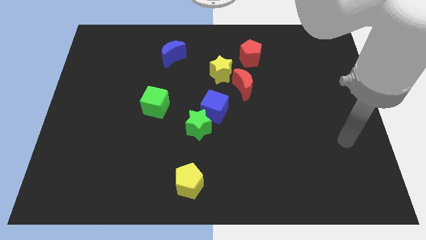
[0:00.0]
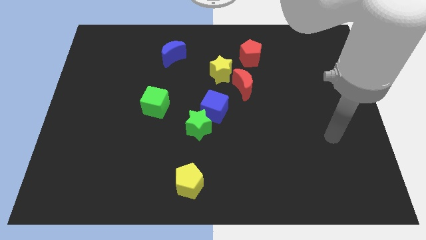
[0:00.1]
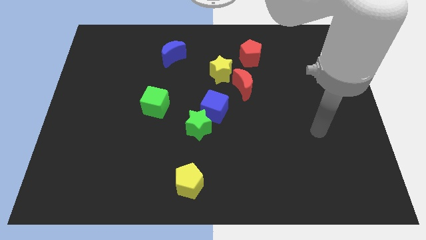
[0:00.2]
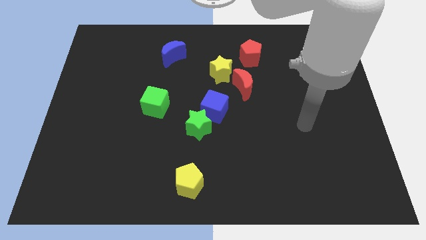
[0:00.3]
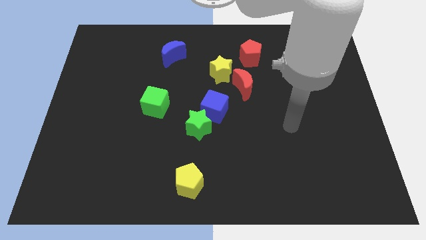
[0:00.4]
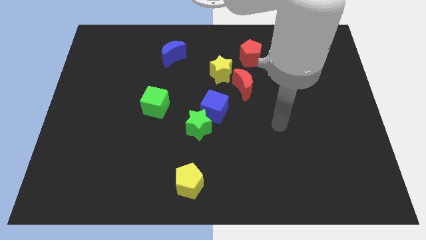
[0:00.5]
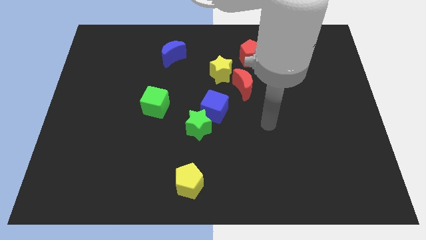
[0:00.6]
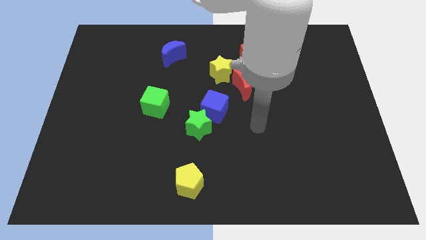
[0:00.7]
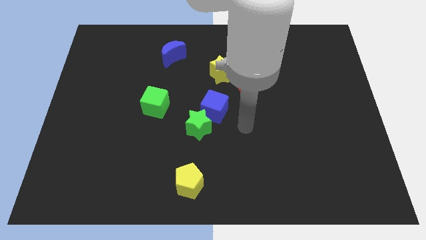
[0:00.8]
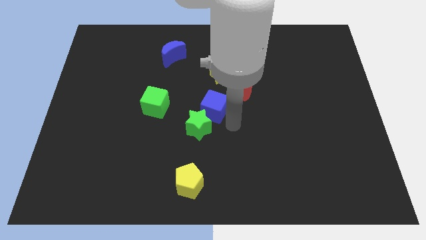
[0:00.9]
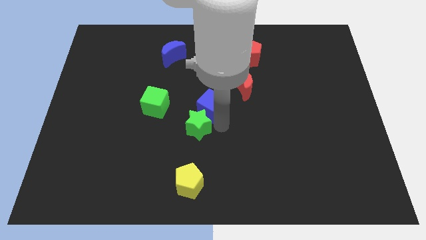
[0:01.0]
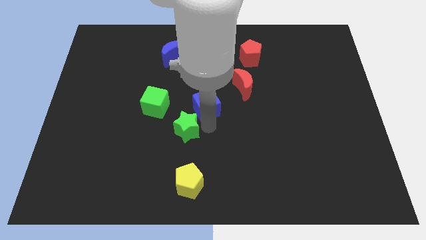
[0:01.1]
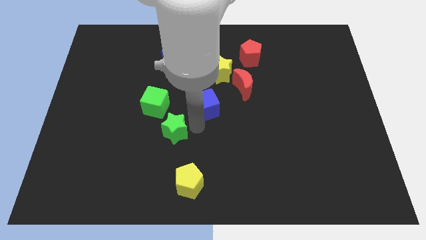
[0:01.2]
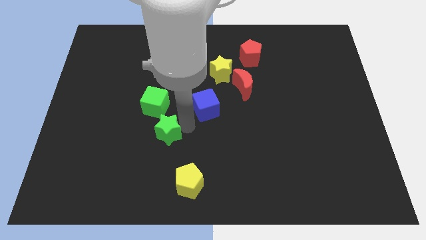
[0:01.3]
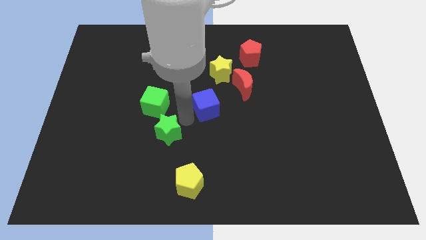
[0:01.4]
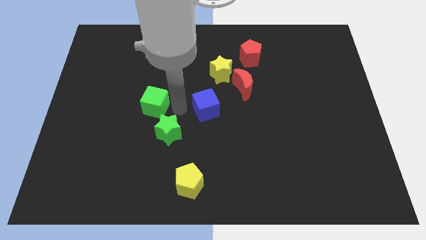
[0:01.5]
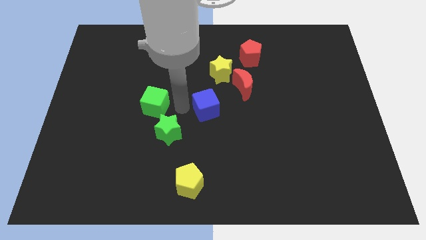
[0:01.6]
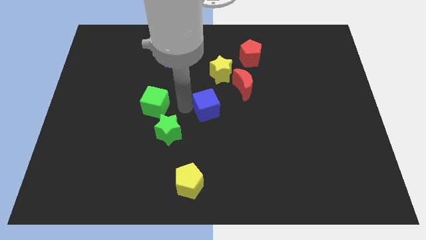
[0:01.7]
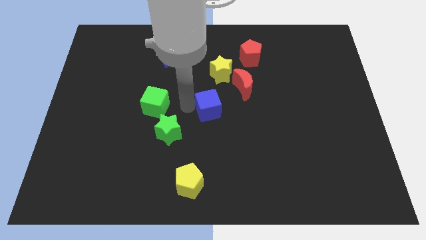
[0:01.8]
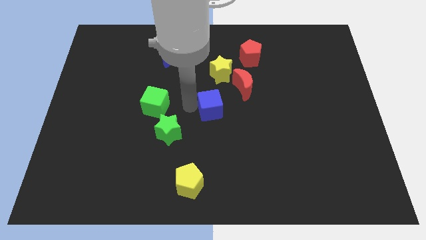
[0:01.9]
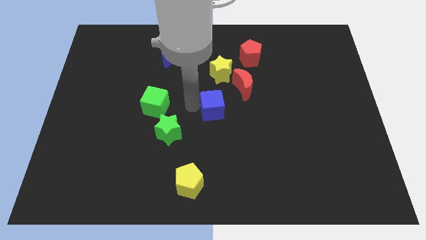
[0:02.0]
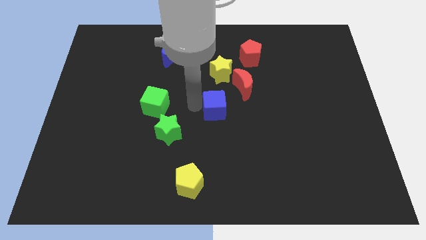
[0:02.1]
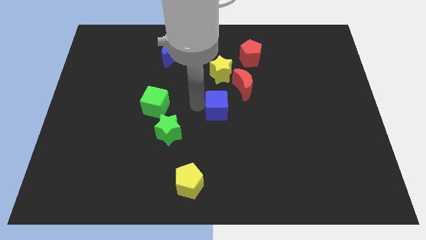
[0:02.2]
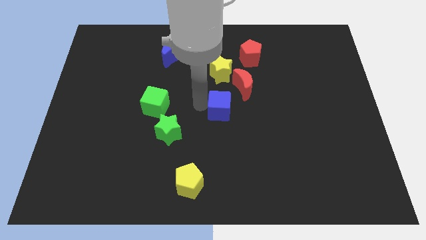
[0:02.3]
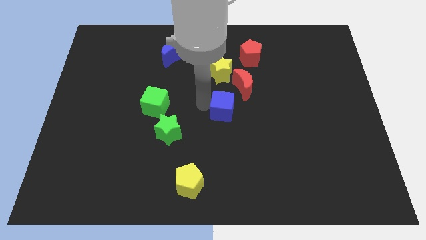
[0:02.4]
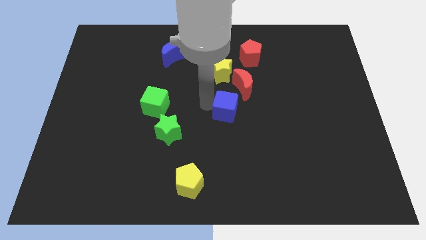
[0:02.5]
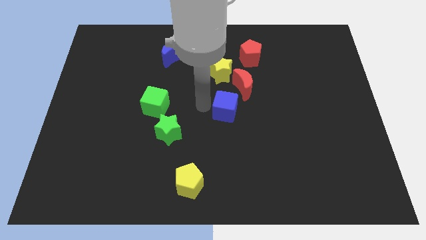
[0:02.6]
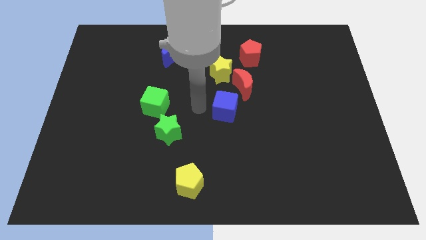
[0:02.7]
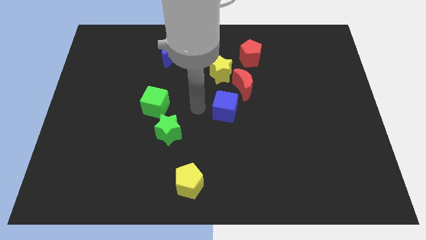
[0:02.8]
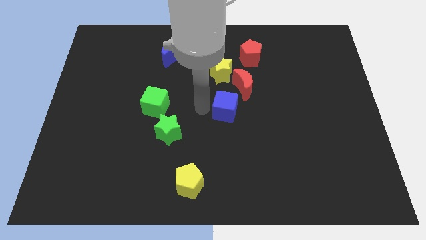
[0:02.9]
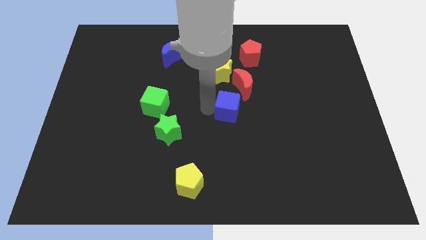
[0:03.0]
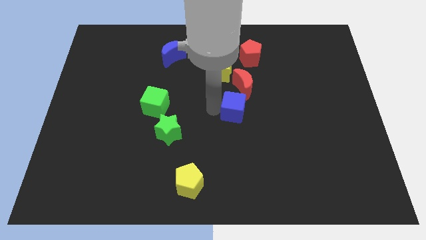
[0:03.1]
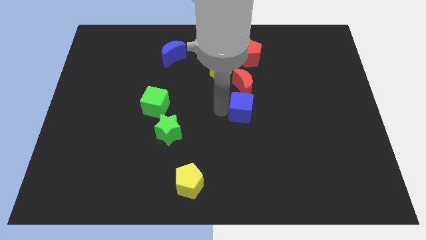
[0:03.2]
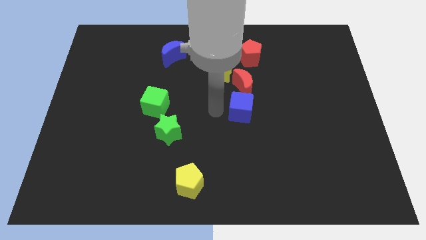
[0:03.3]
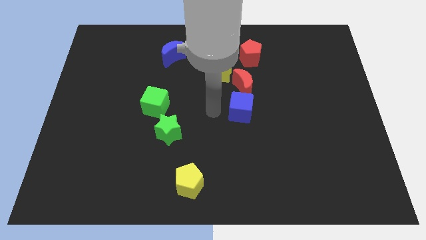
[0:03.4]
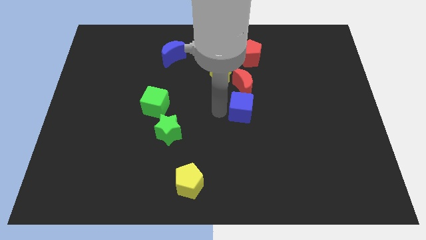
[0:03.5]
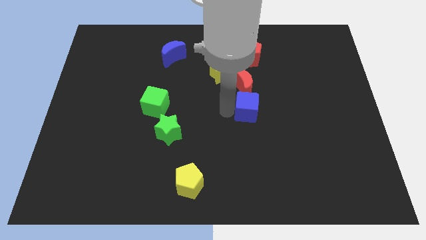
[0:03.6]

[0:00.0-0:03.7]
slightly push the blue cube right

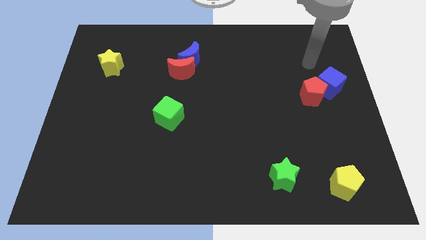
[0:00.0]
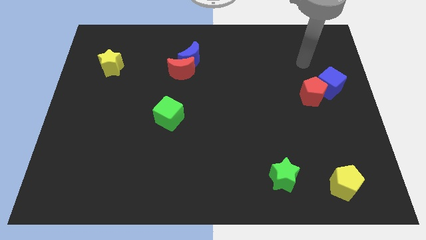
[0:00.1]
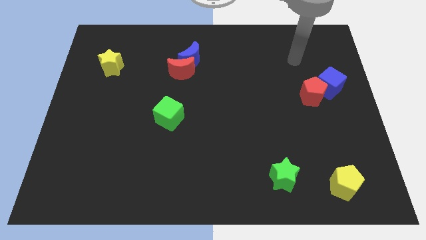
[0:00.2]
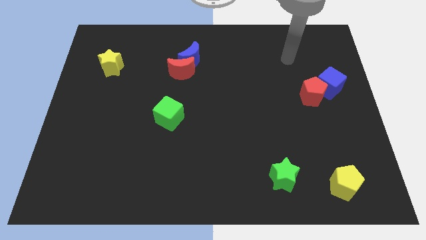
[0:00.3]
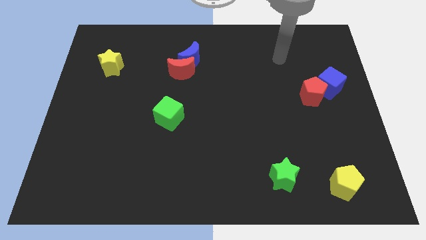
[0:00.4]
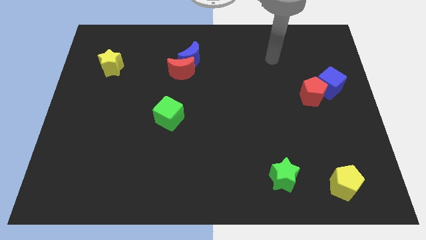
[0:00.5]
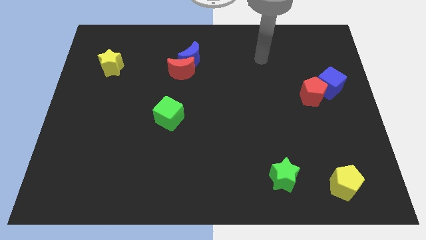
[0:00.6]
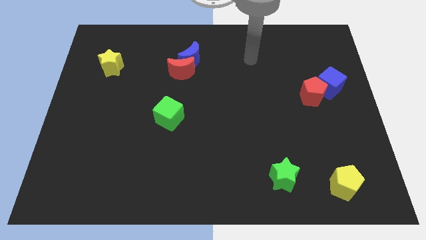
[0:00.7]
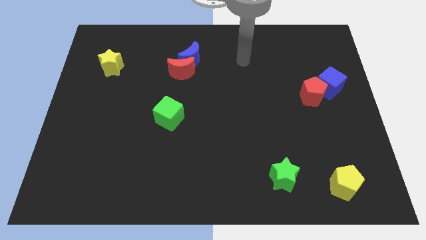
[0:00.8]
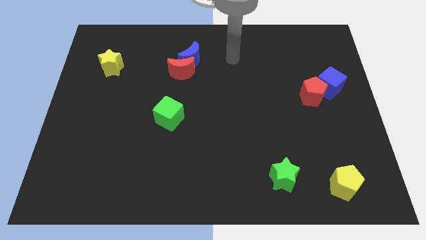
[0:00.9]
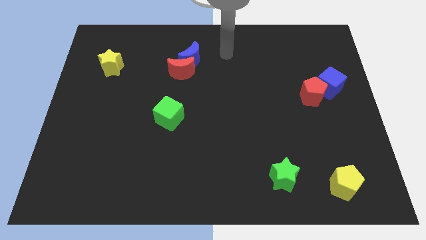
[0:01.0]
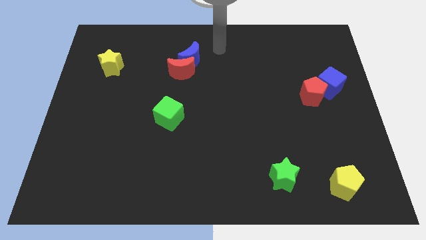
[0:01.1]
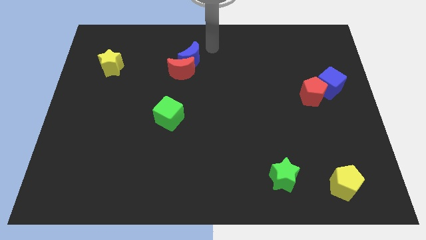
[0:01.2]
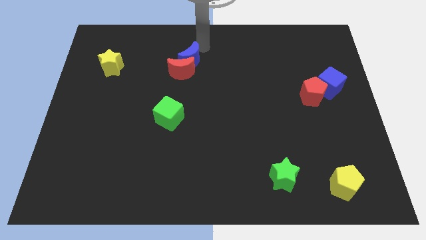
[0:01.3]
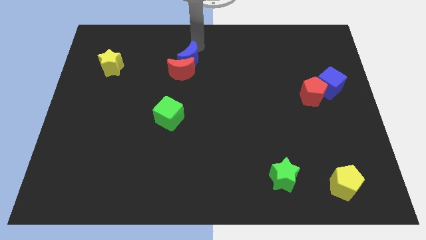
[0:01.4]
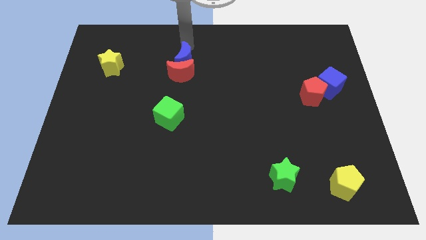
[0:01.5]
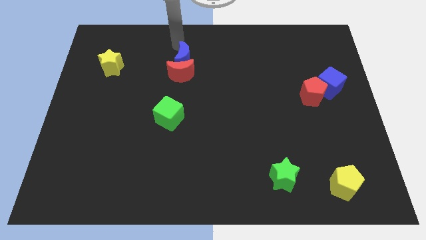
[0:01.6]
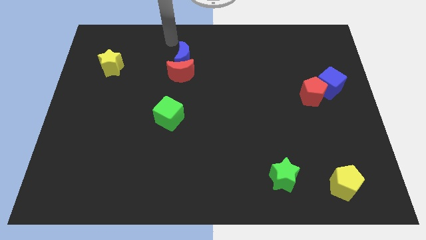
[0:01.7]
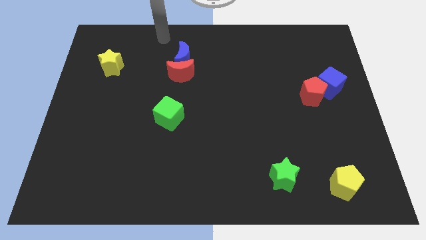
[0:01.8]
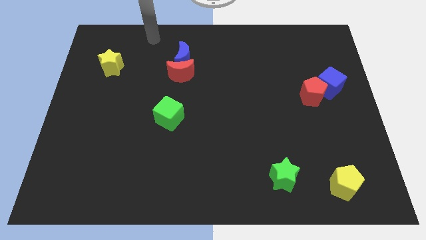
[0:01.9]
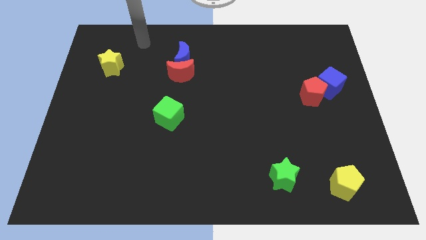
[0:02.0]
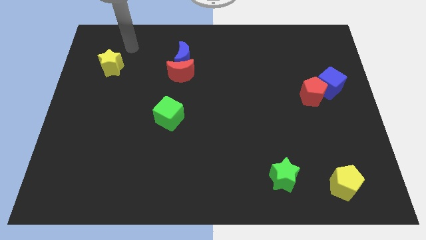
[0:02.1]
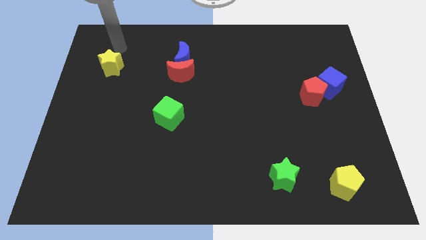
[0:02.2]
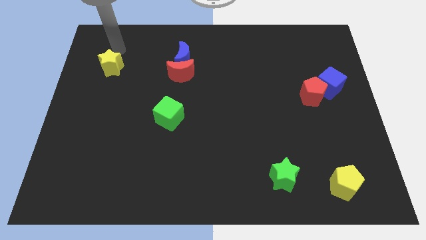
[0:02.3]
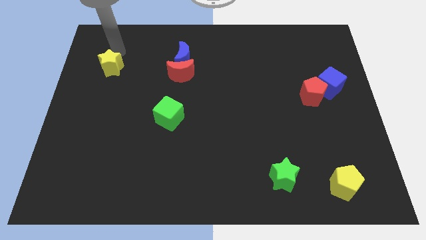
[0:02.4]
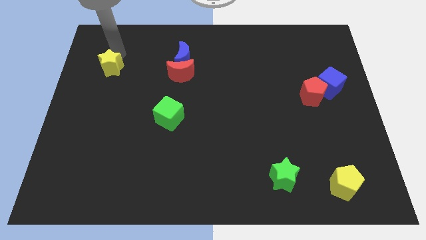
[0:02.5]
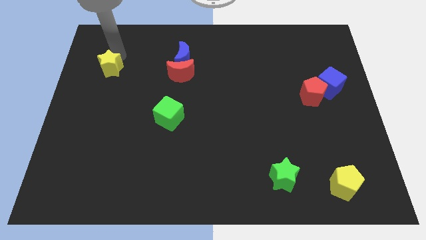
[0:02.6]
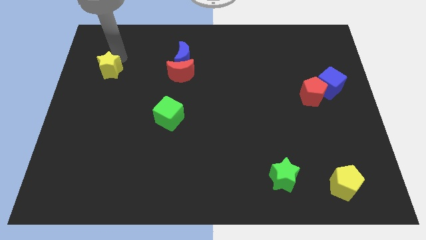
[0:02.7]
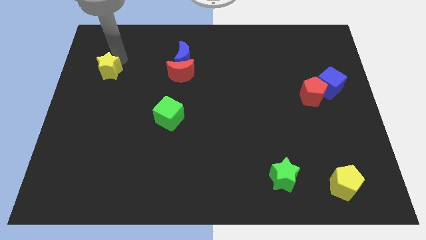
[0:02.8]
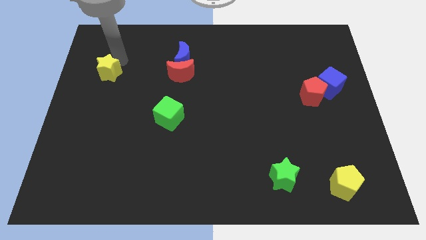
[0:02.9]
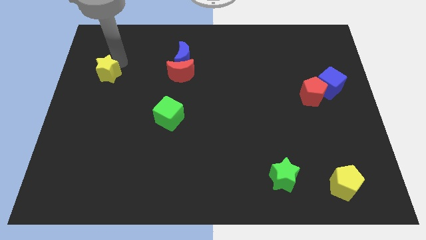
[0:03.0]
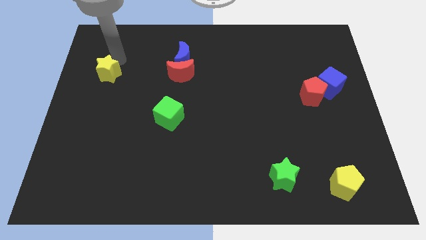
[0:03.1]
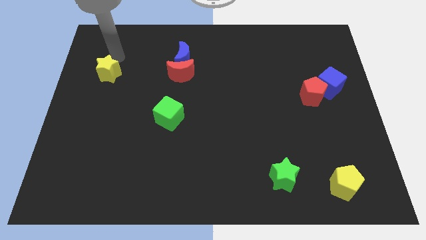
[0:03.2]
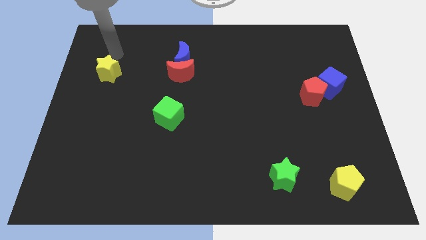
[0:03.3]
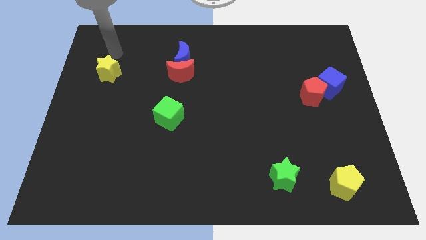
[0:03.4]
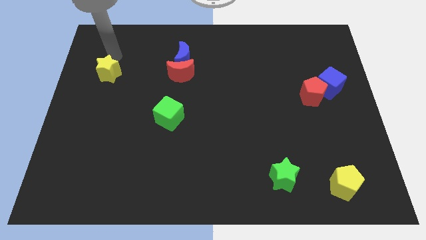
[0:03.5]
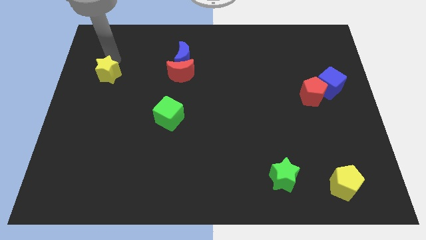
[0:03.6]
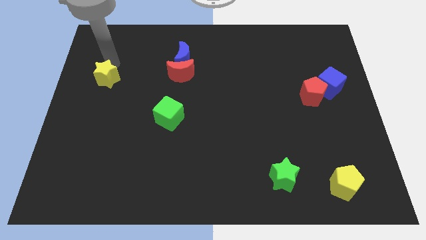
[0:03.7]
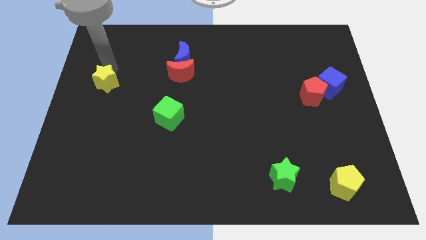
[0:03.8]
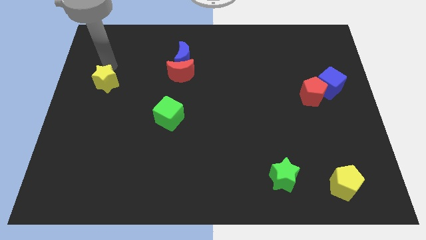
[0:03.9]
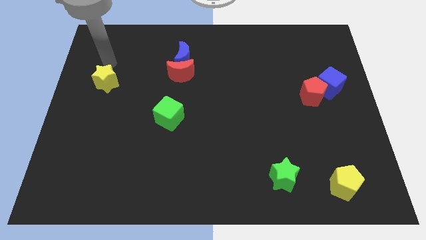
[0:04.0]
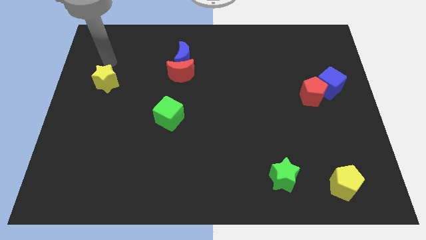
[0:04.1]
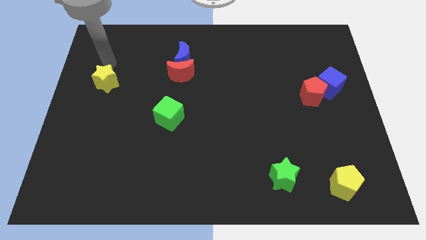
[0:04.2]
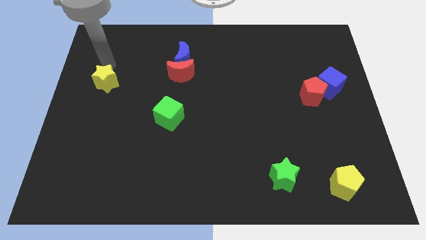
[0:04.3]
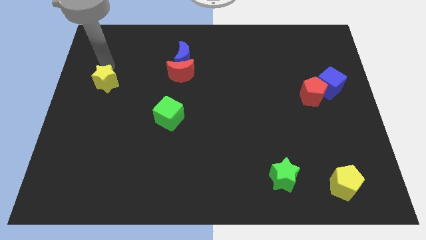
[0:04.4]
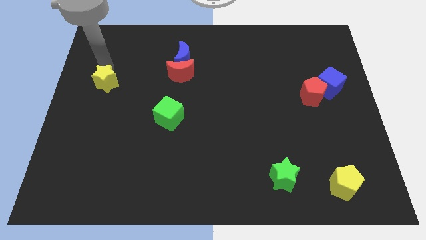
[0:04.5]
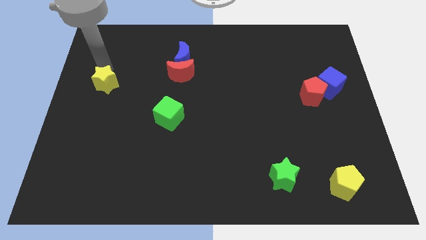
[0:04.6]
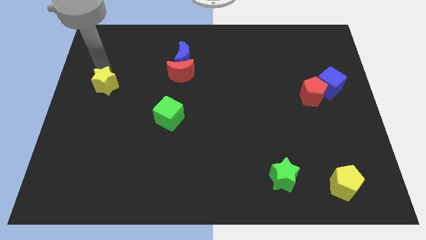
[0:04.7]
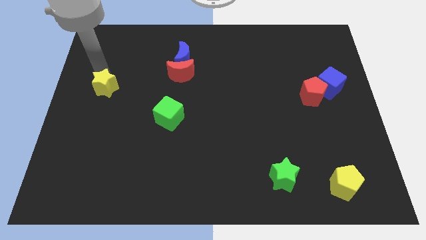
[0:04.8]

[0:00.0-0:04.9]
slightly slide the yellow star down

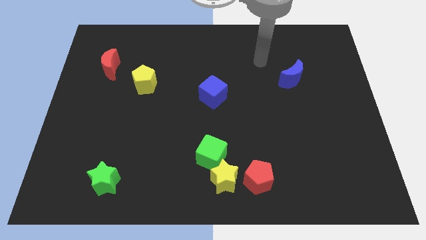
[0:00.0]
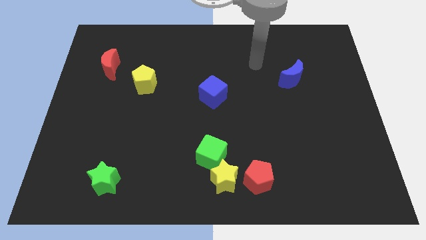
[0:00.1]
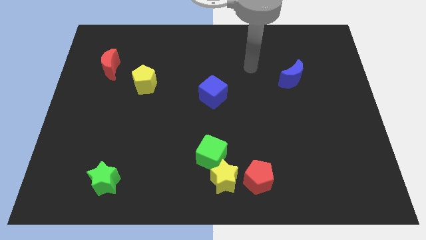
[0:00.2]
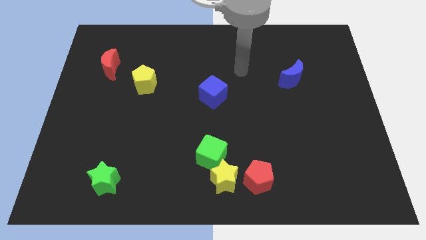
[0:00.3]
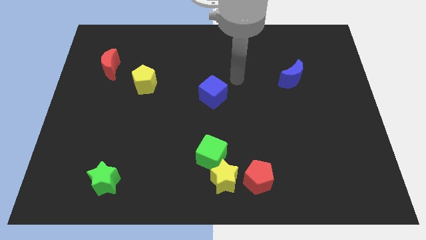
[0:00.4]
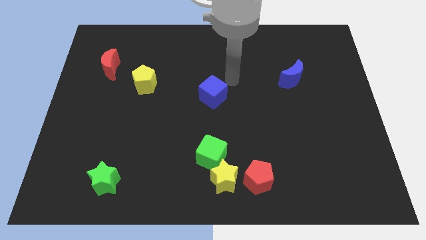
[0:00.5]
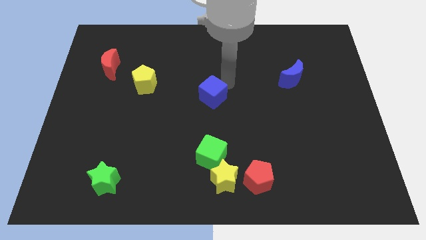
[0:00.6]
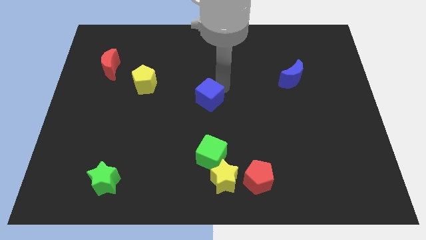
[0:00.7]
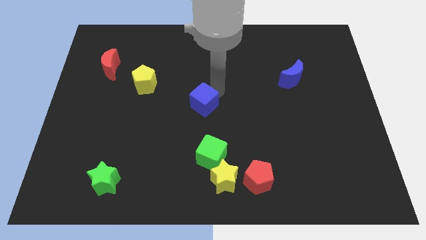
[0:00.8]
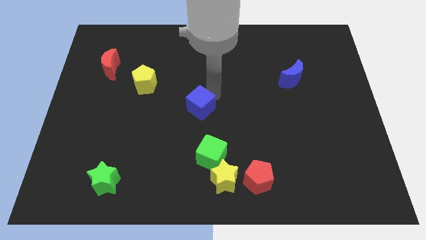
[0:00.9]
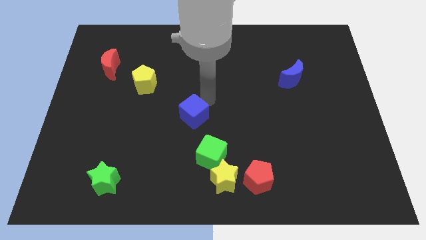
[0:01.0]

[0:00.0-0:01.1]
slightly move the blue cube diagonally down and to the left
